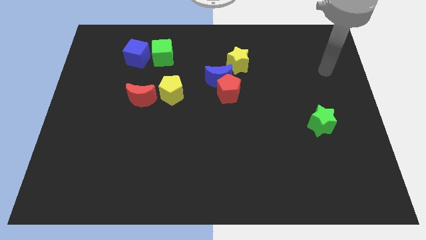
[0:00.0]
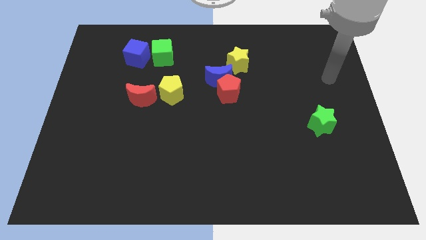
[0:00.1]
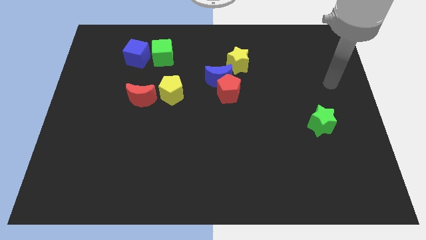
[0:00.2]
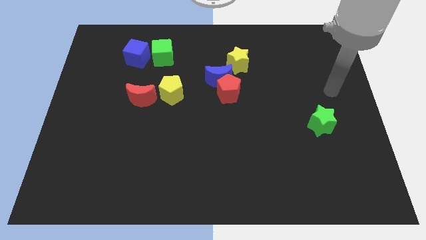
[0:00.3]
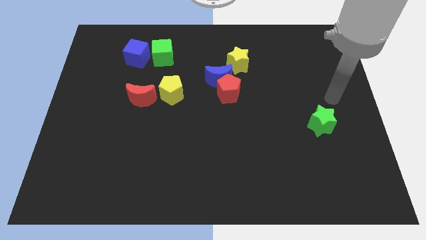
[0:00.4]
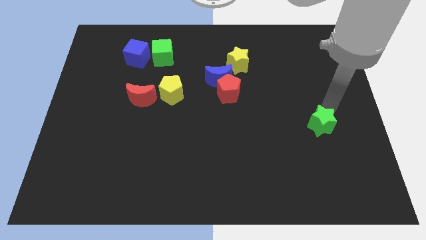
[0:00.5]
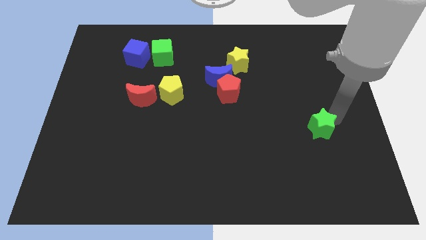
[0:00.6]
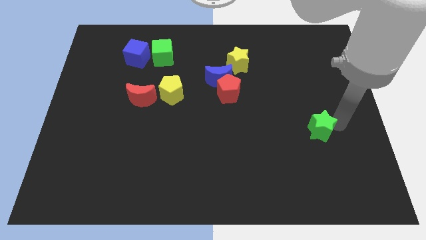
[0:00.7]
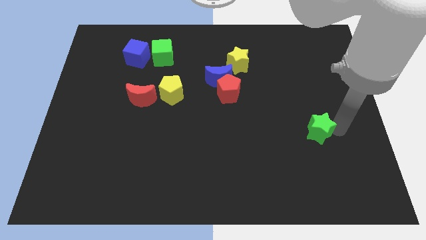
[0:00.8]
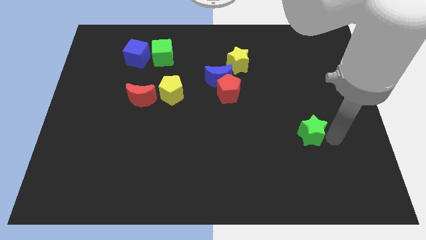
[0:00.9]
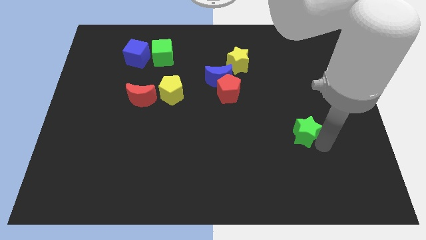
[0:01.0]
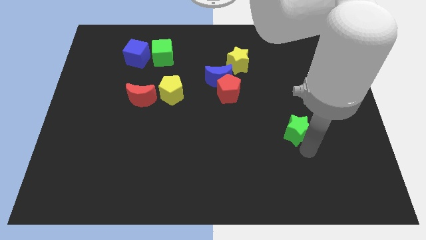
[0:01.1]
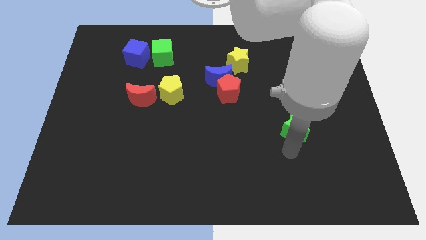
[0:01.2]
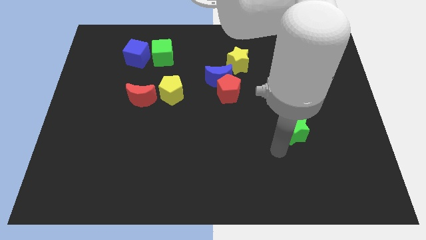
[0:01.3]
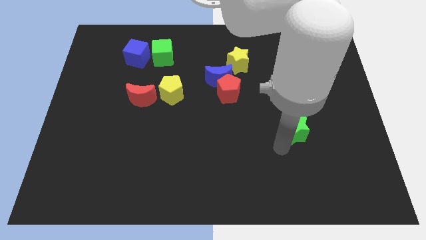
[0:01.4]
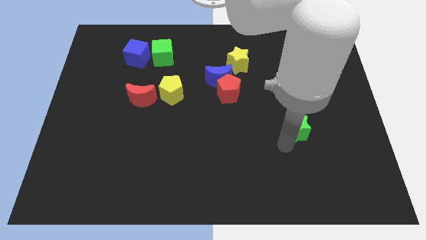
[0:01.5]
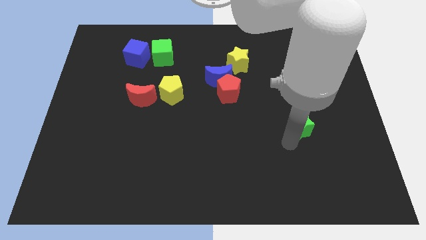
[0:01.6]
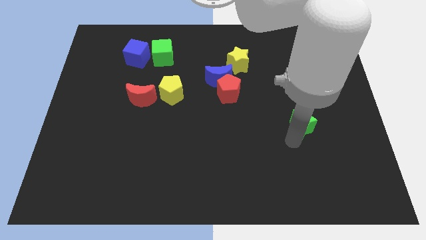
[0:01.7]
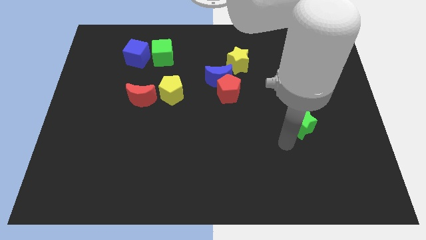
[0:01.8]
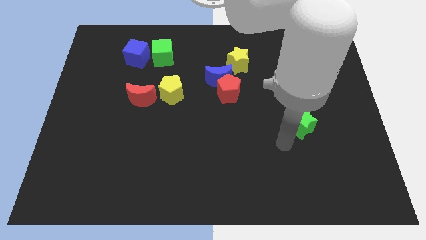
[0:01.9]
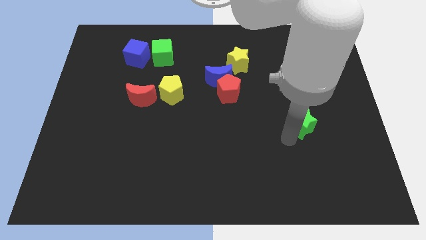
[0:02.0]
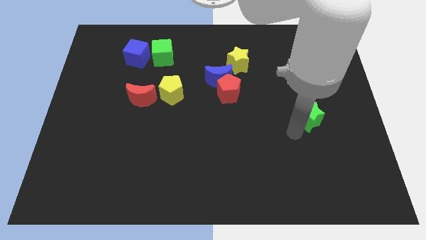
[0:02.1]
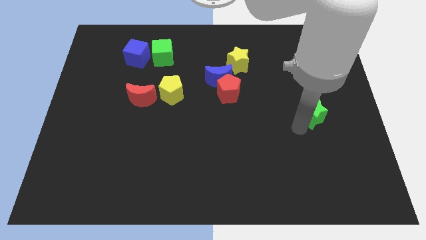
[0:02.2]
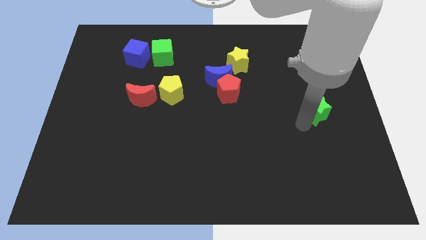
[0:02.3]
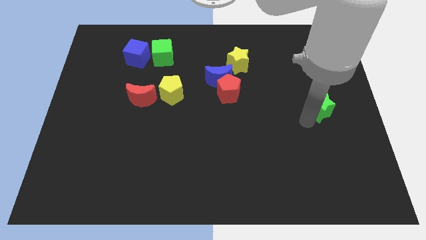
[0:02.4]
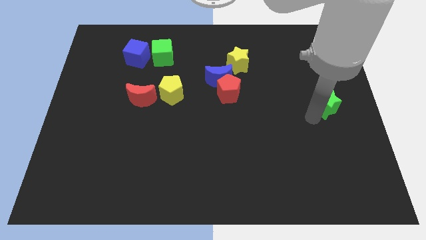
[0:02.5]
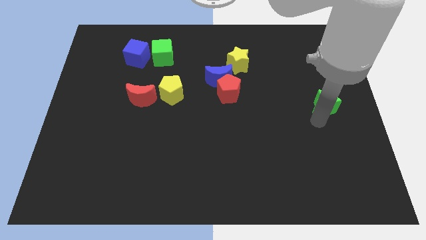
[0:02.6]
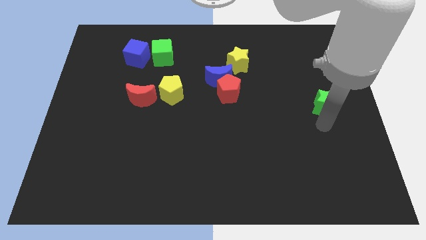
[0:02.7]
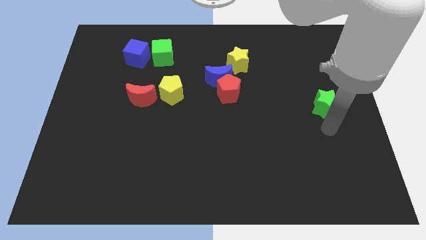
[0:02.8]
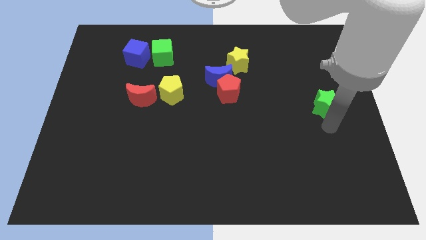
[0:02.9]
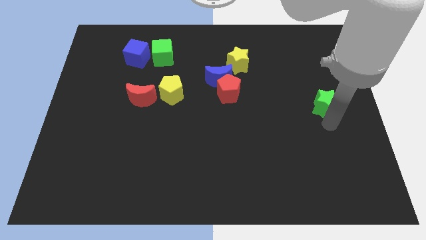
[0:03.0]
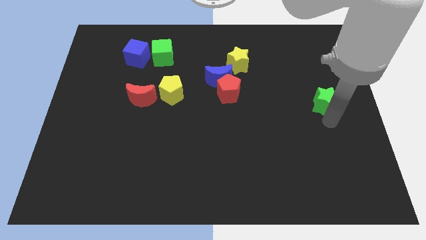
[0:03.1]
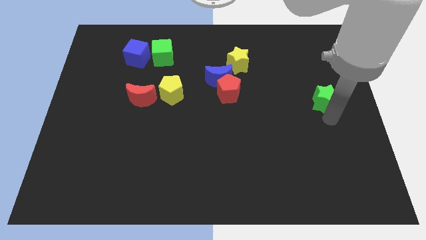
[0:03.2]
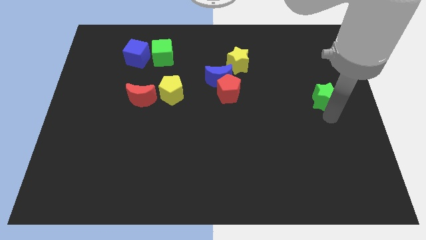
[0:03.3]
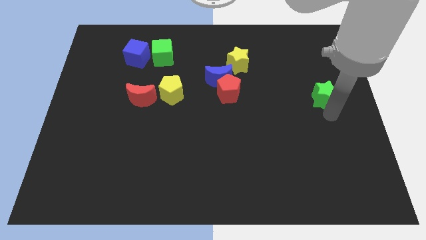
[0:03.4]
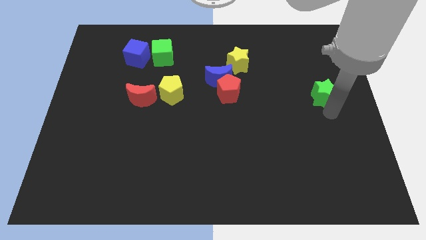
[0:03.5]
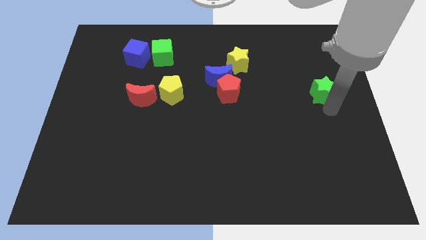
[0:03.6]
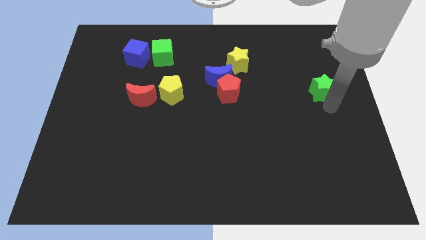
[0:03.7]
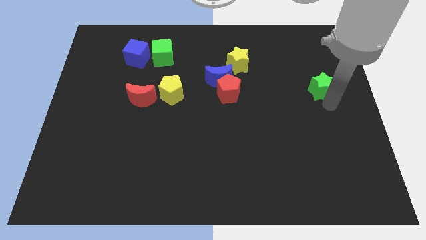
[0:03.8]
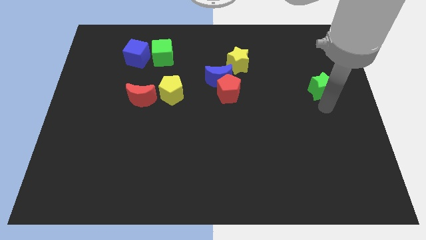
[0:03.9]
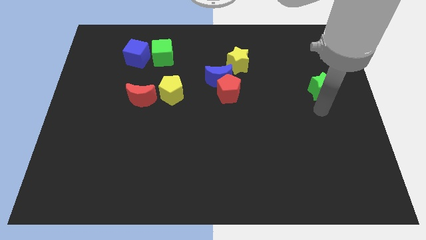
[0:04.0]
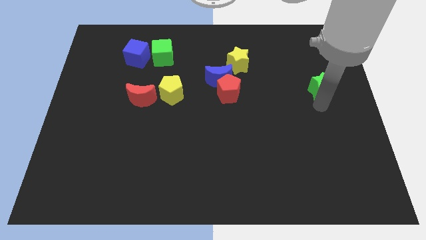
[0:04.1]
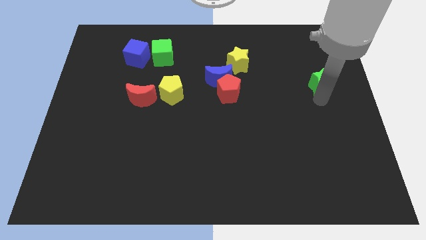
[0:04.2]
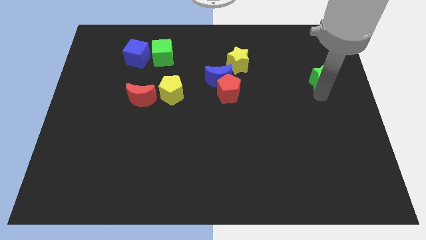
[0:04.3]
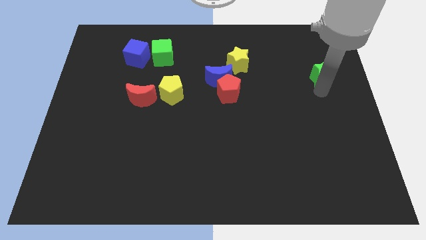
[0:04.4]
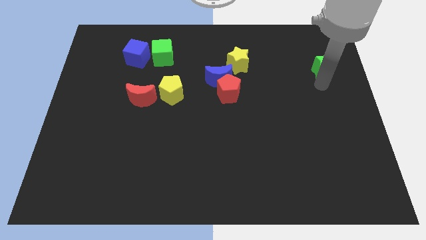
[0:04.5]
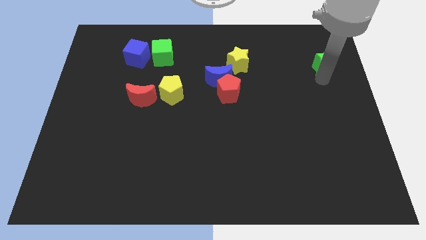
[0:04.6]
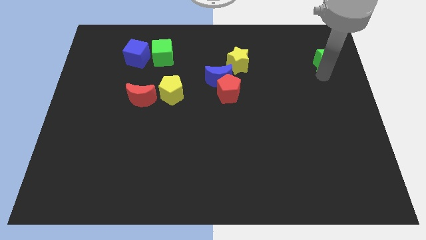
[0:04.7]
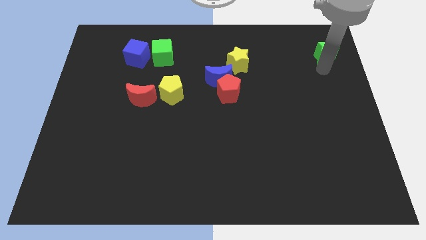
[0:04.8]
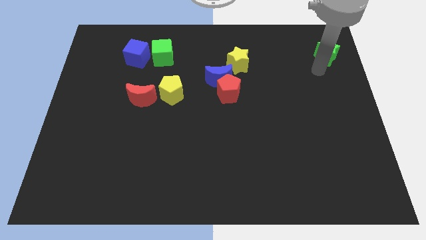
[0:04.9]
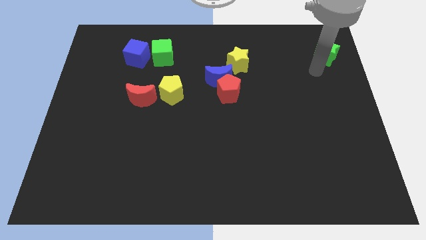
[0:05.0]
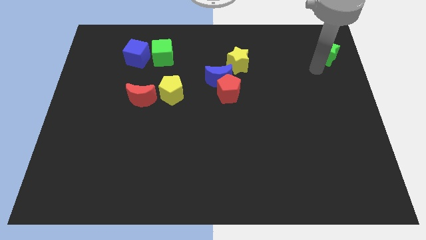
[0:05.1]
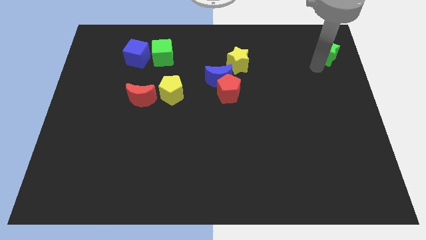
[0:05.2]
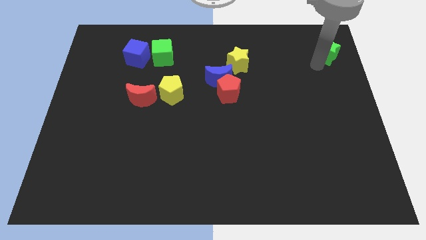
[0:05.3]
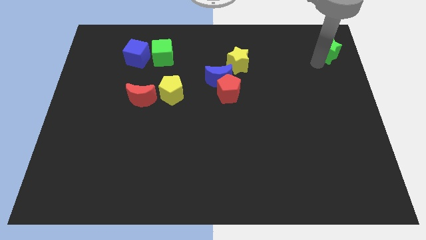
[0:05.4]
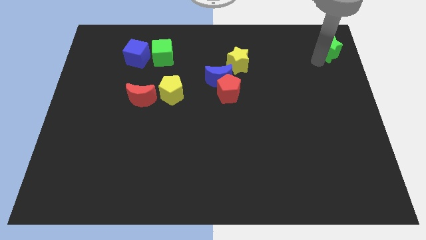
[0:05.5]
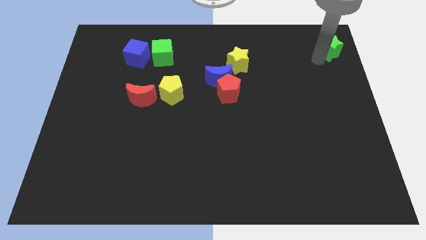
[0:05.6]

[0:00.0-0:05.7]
put the green star to the top right
